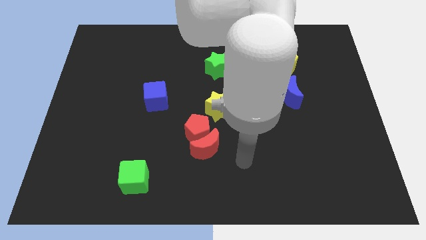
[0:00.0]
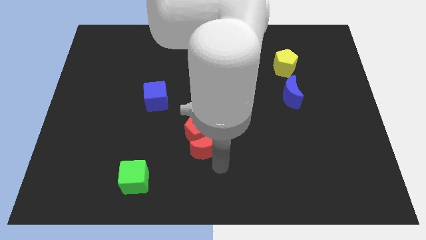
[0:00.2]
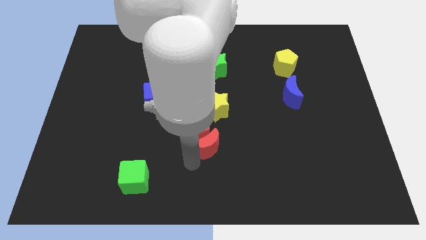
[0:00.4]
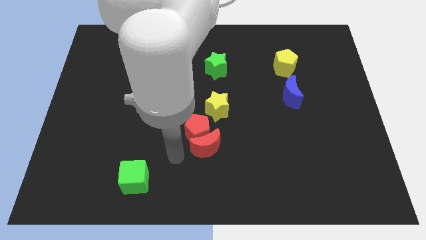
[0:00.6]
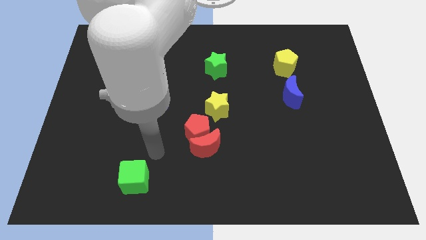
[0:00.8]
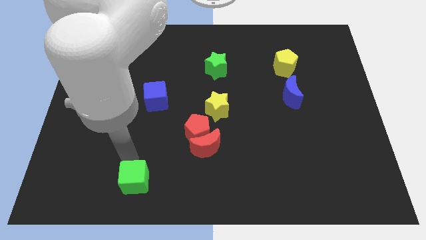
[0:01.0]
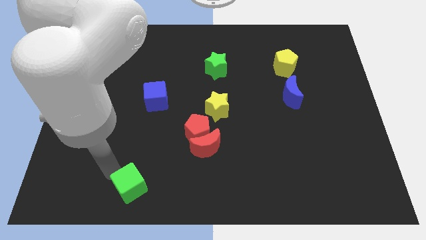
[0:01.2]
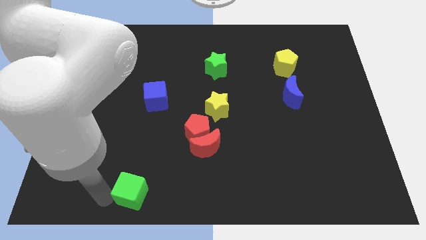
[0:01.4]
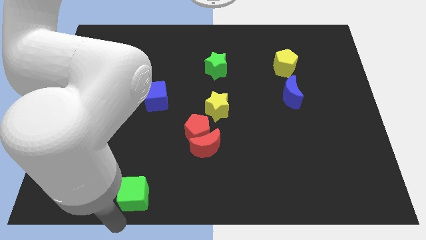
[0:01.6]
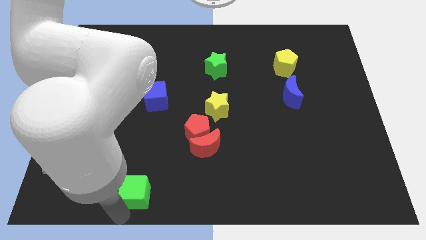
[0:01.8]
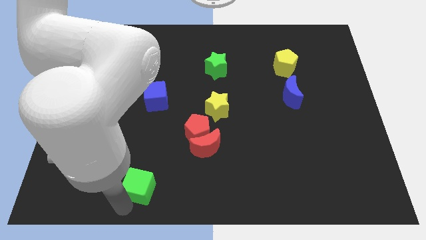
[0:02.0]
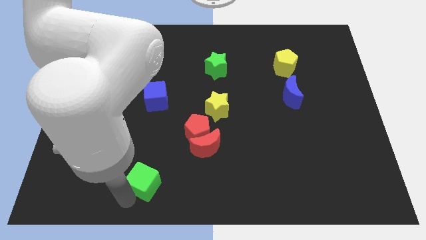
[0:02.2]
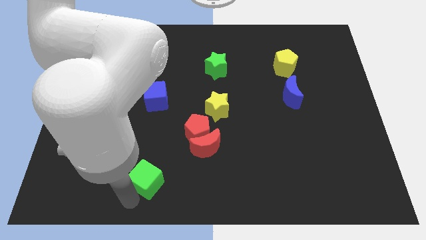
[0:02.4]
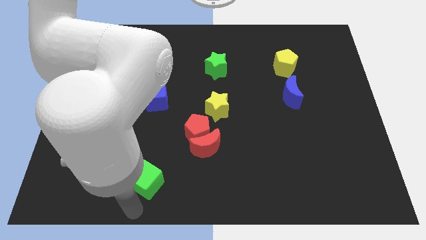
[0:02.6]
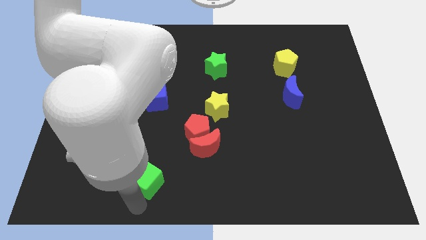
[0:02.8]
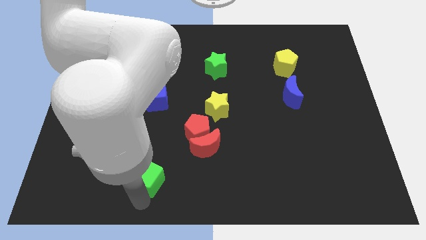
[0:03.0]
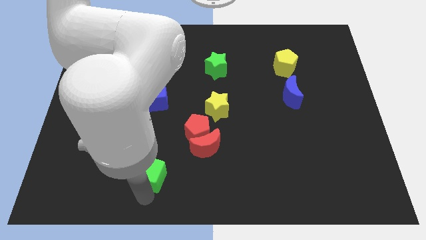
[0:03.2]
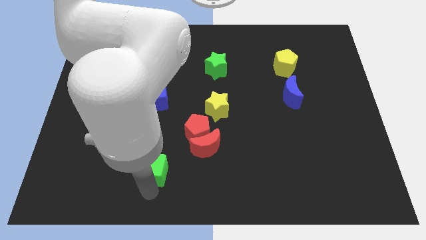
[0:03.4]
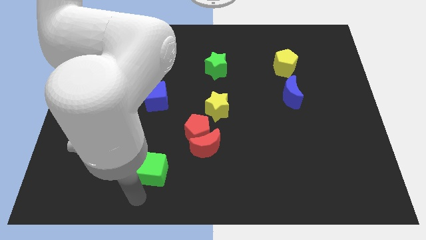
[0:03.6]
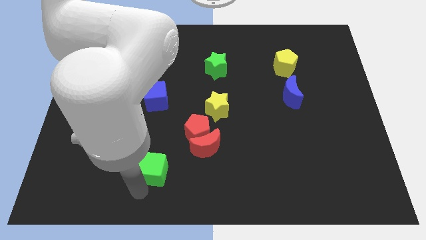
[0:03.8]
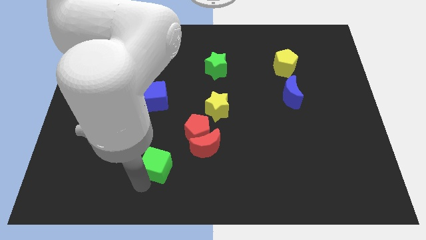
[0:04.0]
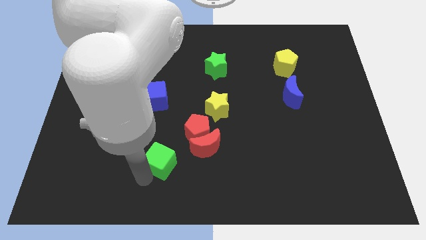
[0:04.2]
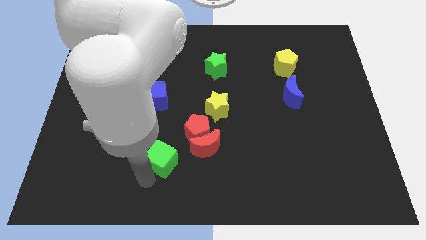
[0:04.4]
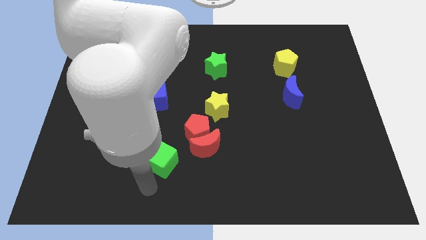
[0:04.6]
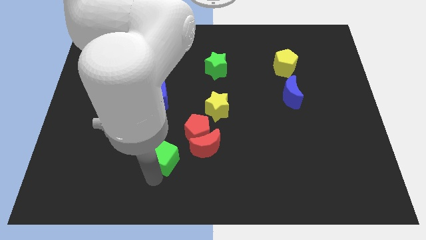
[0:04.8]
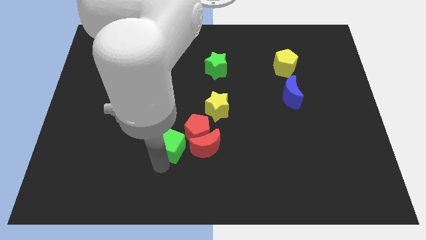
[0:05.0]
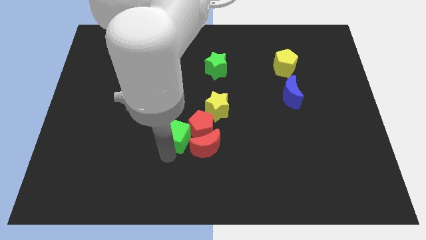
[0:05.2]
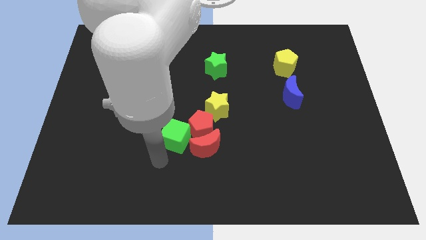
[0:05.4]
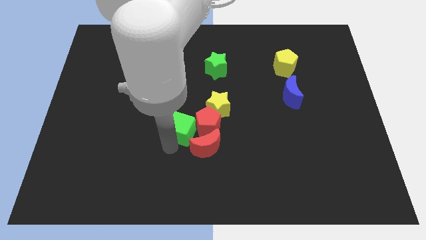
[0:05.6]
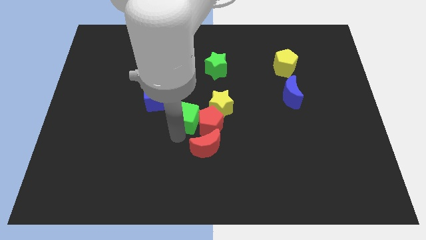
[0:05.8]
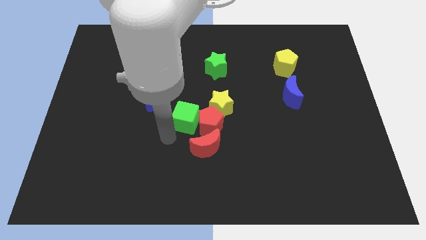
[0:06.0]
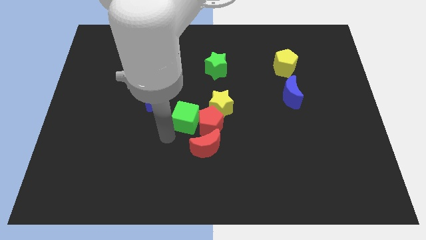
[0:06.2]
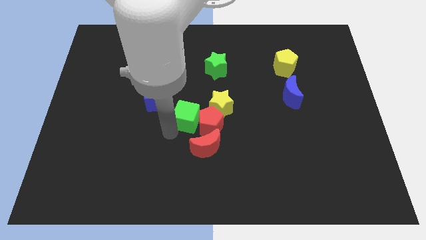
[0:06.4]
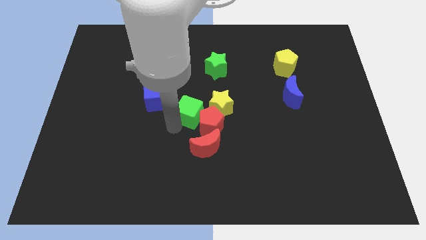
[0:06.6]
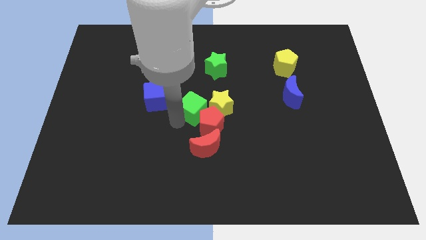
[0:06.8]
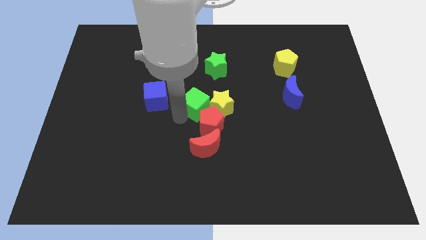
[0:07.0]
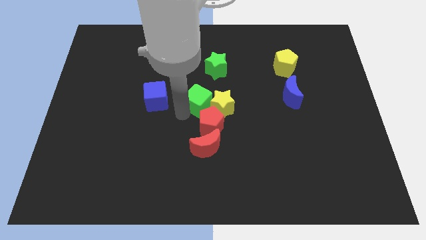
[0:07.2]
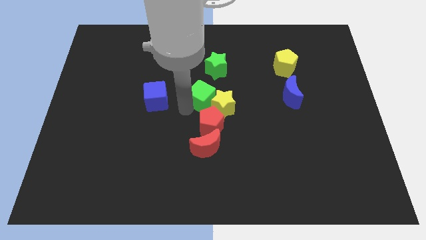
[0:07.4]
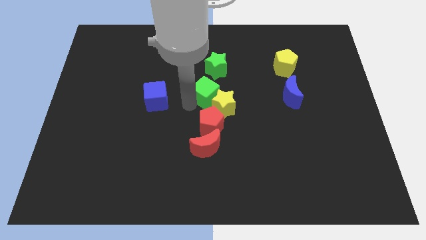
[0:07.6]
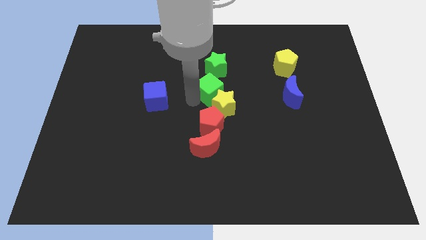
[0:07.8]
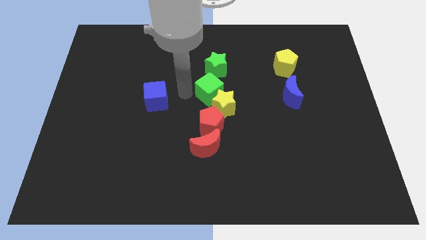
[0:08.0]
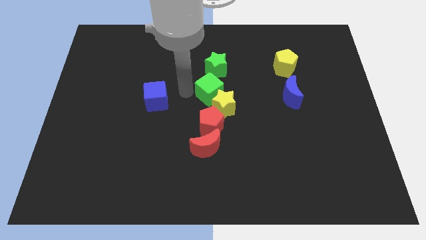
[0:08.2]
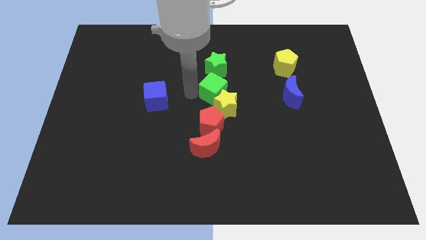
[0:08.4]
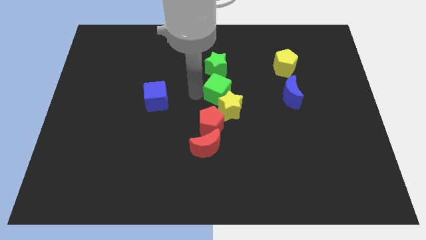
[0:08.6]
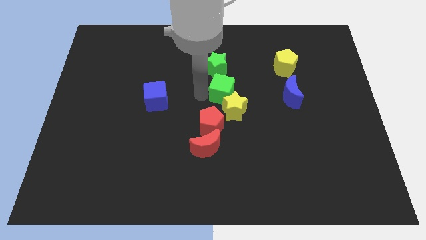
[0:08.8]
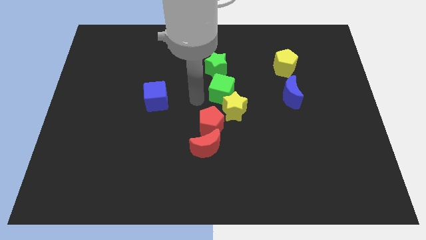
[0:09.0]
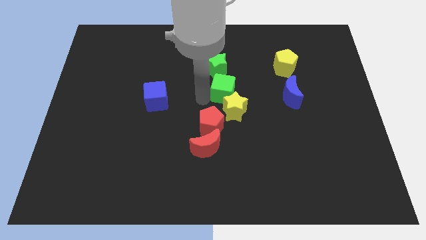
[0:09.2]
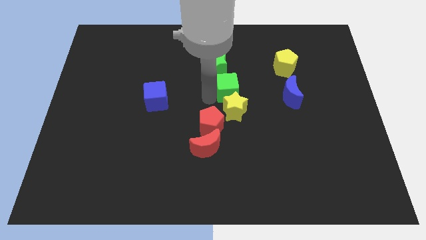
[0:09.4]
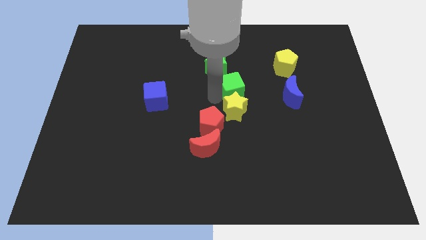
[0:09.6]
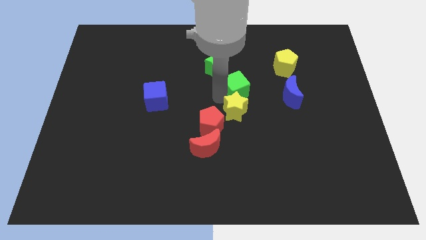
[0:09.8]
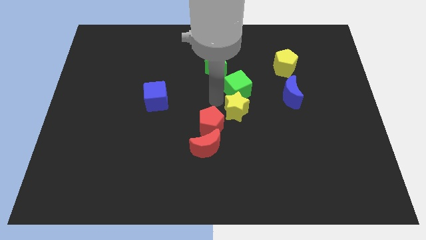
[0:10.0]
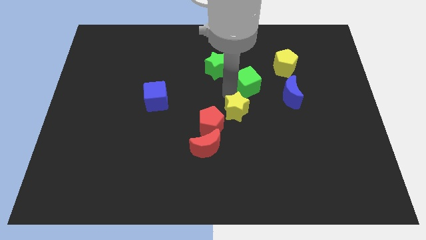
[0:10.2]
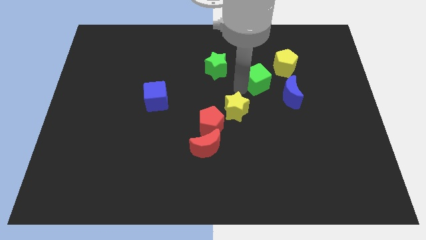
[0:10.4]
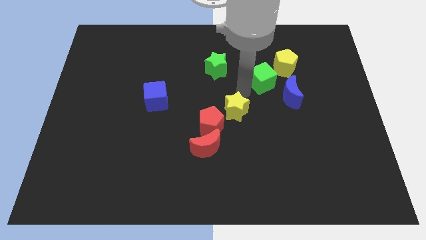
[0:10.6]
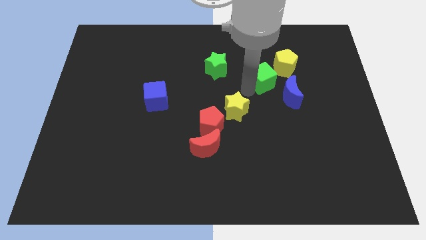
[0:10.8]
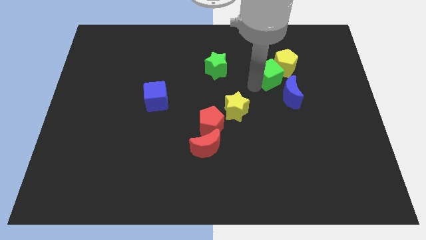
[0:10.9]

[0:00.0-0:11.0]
push the green cube next to the yellow pentagon

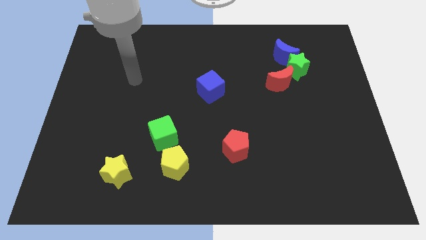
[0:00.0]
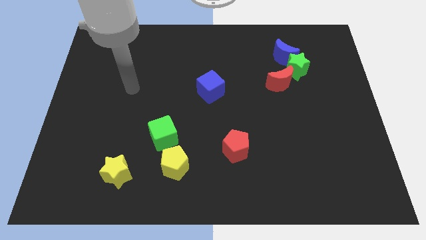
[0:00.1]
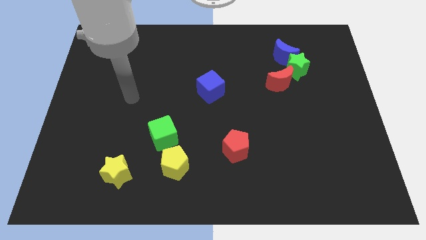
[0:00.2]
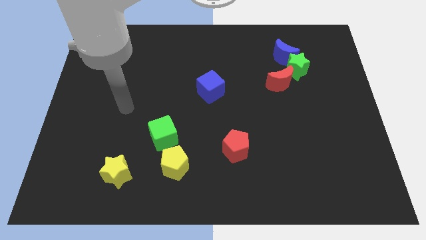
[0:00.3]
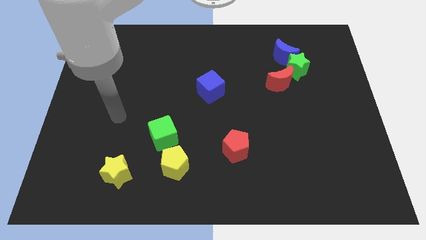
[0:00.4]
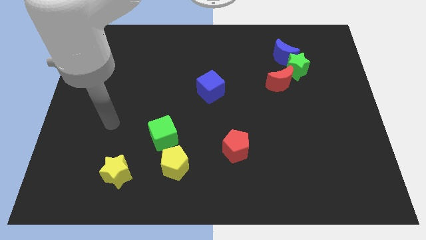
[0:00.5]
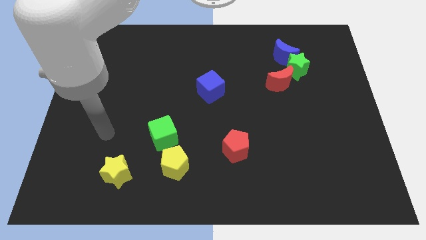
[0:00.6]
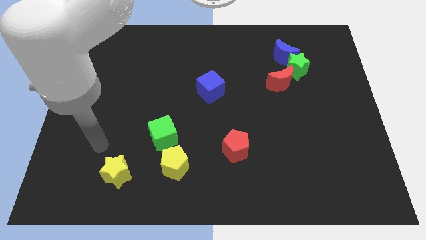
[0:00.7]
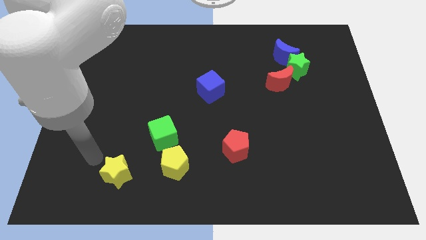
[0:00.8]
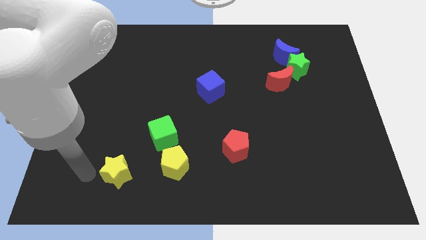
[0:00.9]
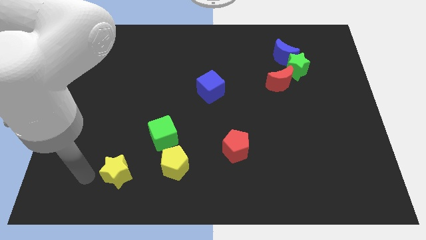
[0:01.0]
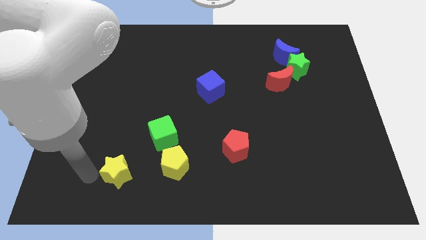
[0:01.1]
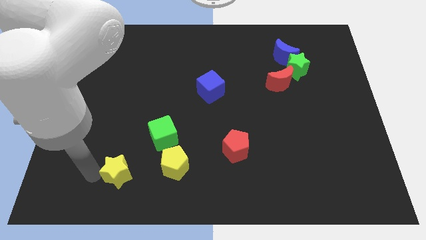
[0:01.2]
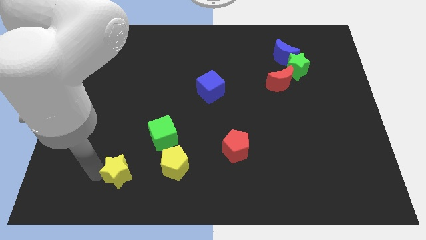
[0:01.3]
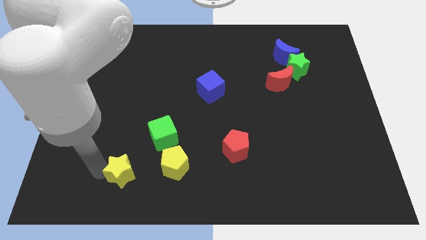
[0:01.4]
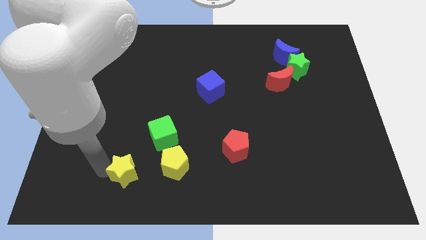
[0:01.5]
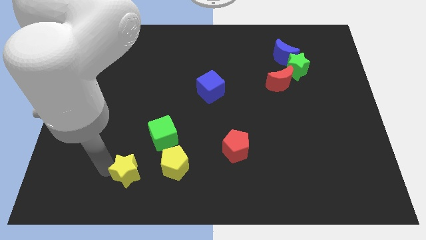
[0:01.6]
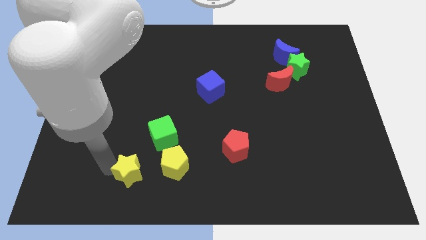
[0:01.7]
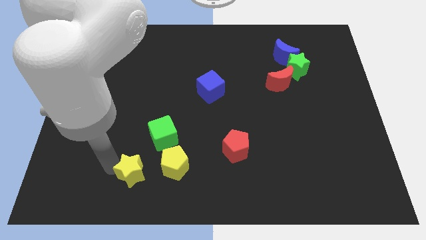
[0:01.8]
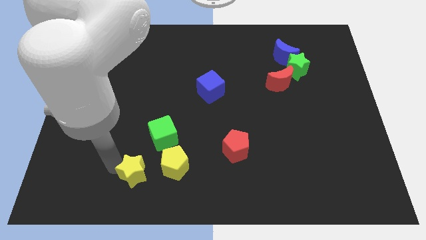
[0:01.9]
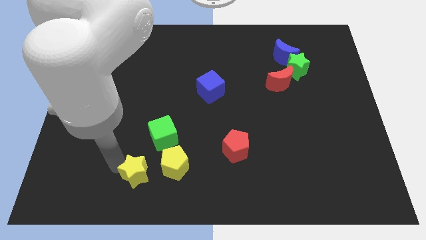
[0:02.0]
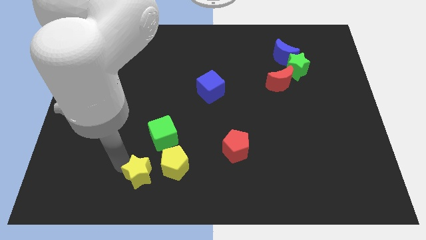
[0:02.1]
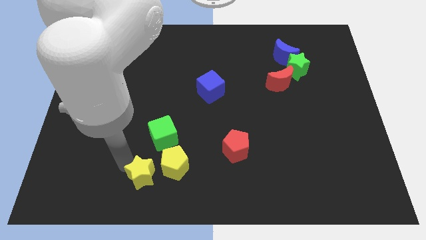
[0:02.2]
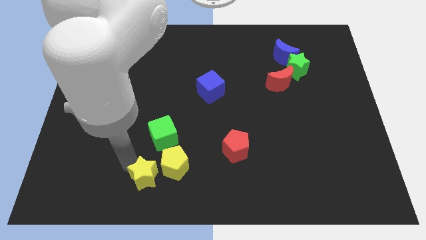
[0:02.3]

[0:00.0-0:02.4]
put the yellow star close to the yellow pentagon
